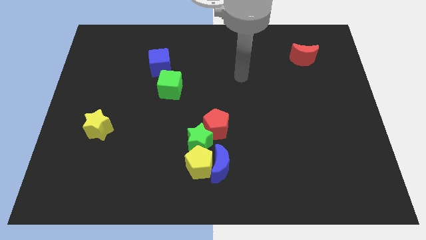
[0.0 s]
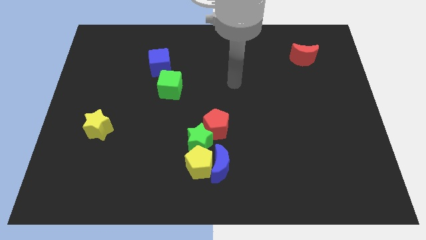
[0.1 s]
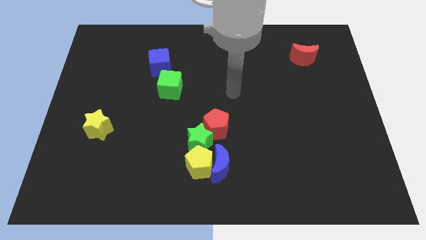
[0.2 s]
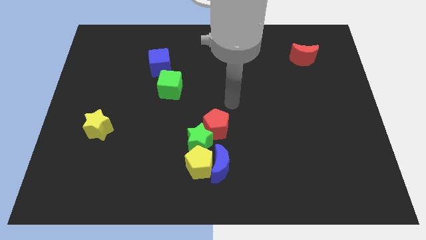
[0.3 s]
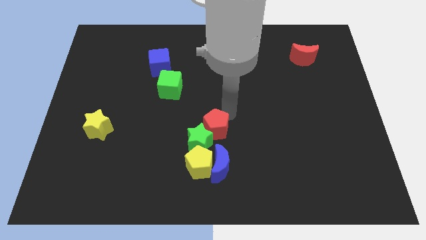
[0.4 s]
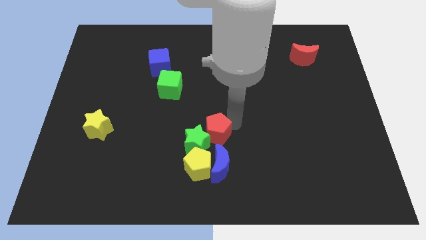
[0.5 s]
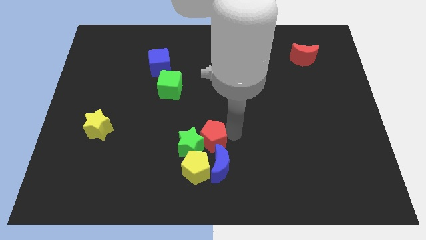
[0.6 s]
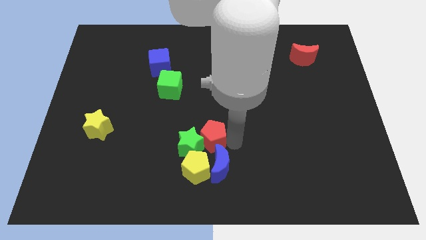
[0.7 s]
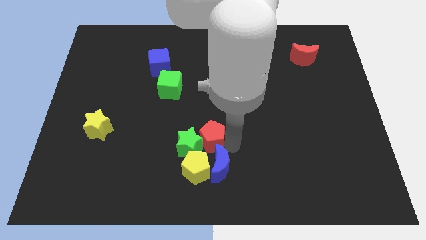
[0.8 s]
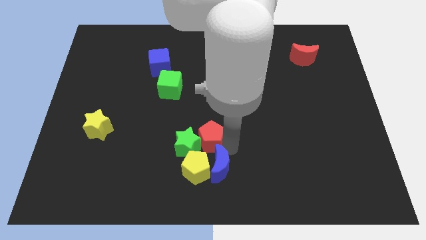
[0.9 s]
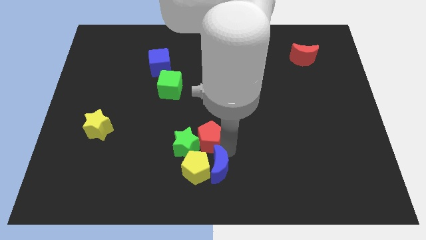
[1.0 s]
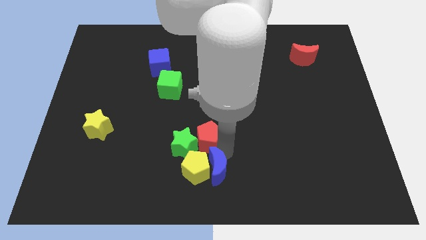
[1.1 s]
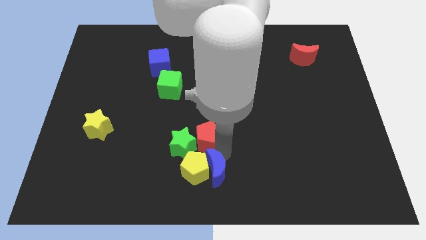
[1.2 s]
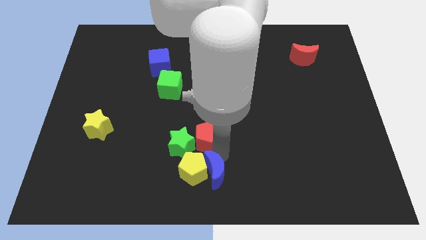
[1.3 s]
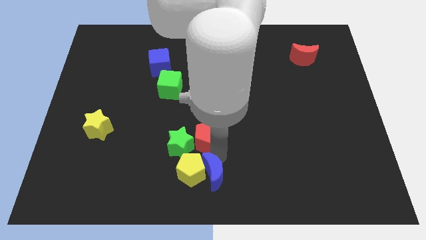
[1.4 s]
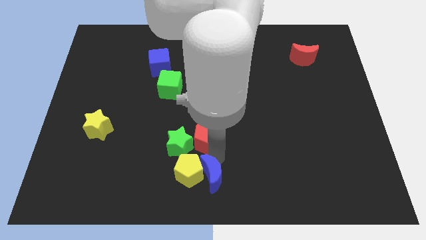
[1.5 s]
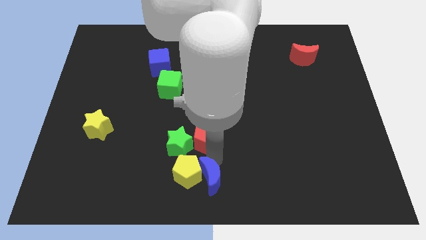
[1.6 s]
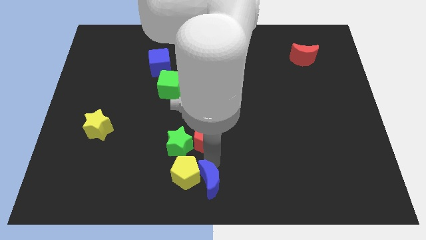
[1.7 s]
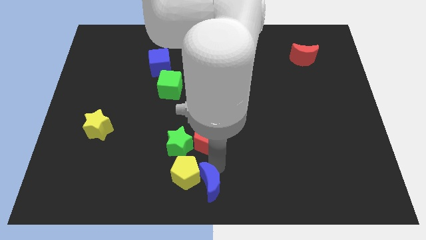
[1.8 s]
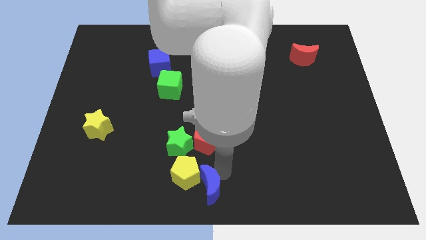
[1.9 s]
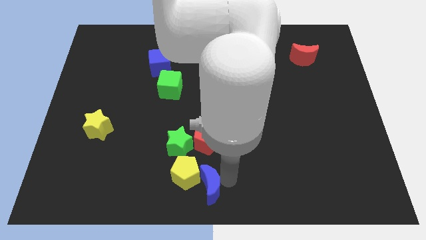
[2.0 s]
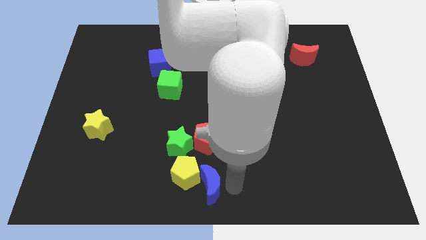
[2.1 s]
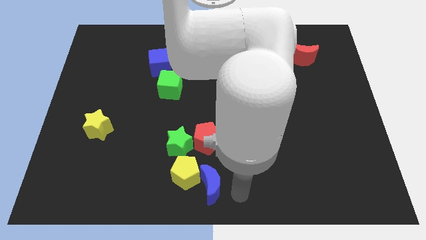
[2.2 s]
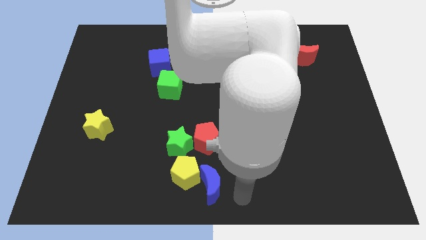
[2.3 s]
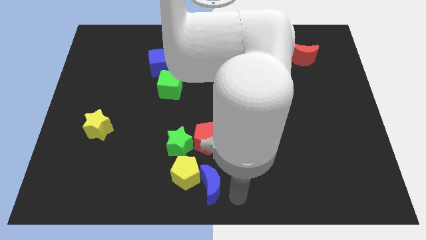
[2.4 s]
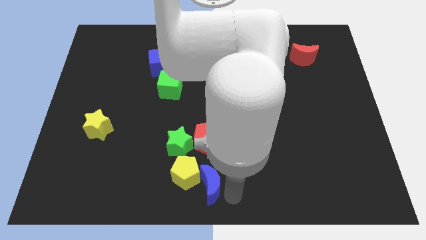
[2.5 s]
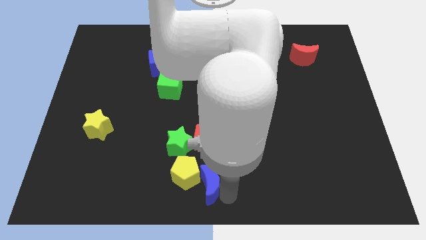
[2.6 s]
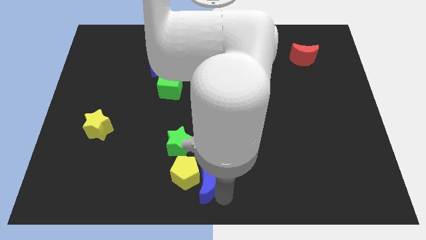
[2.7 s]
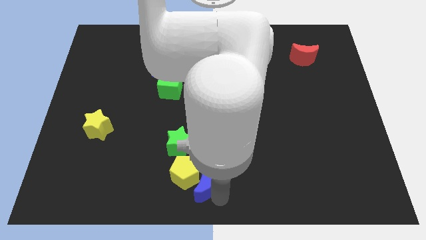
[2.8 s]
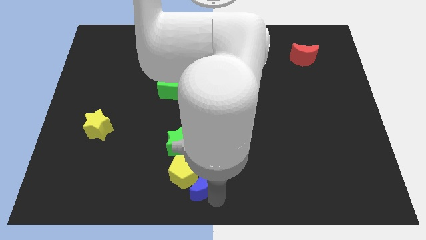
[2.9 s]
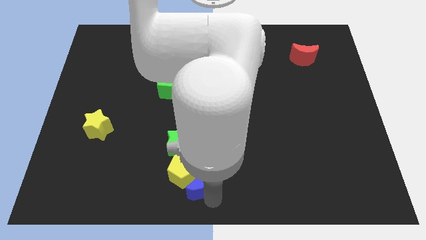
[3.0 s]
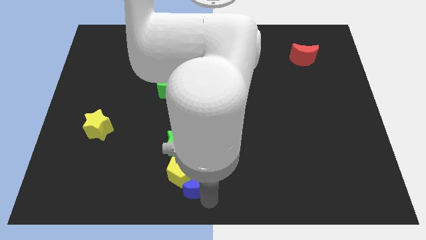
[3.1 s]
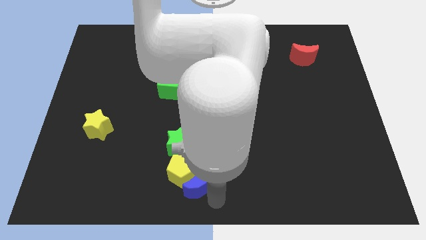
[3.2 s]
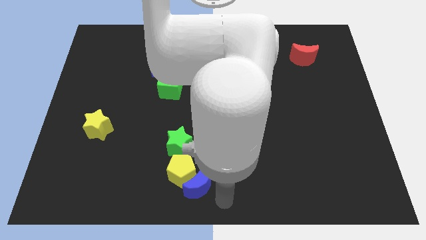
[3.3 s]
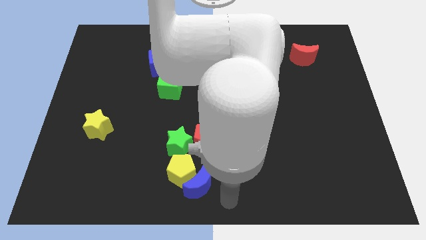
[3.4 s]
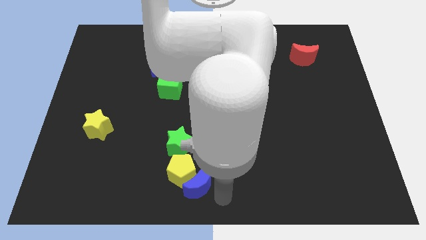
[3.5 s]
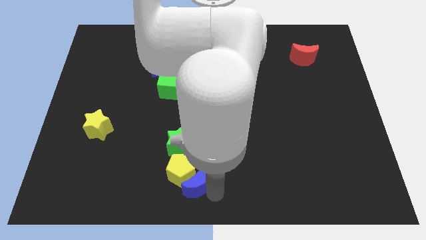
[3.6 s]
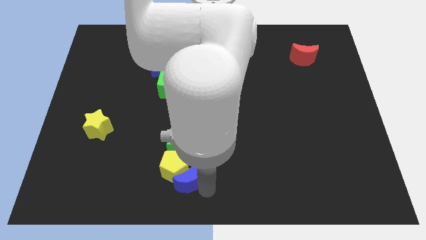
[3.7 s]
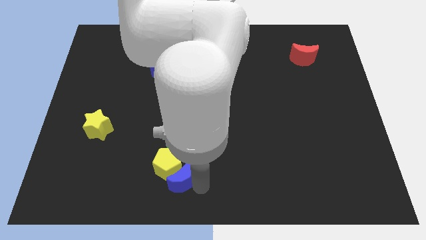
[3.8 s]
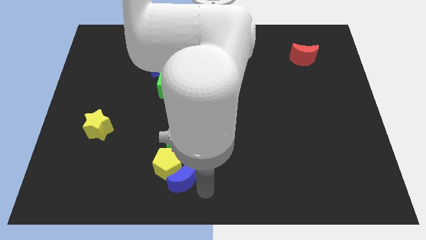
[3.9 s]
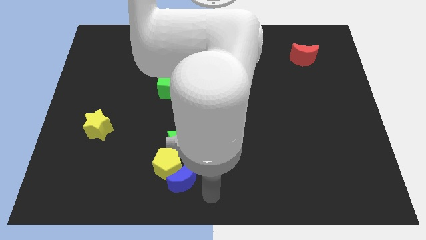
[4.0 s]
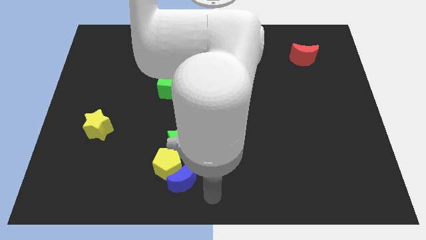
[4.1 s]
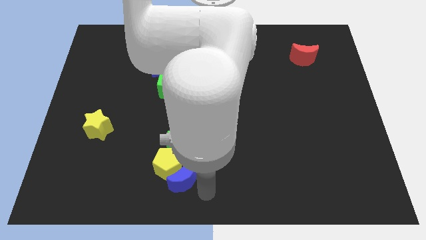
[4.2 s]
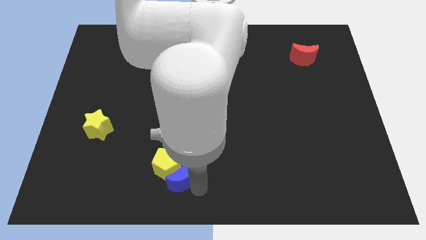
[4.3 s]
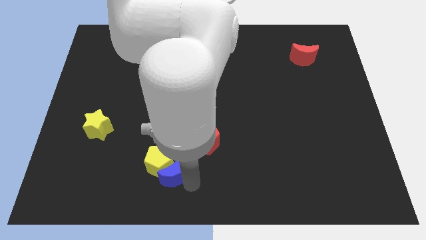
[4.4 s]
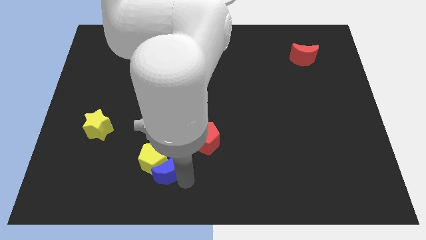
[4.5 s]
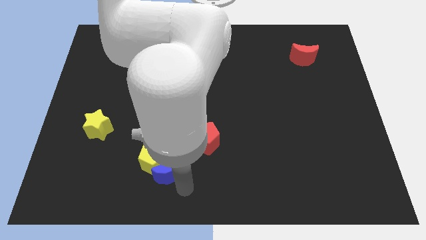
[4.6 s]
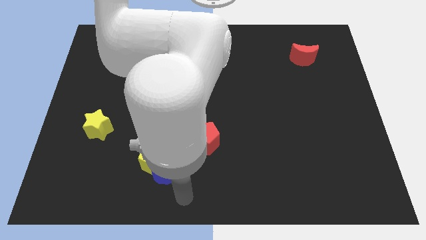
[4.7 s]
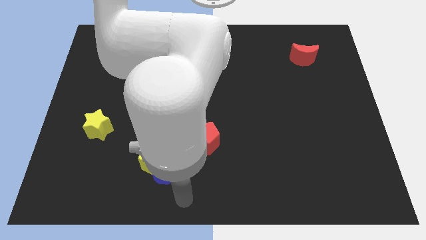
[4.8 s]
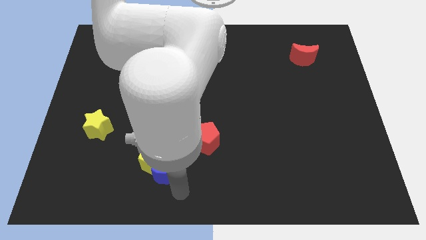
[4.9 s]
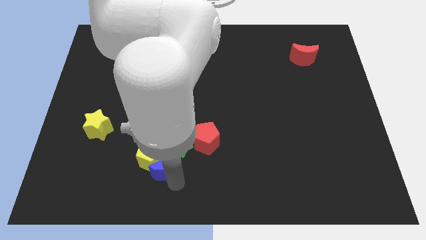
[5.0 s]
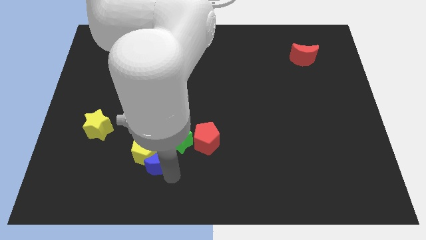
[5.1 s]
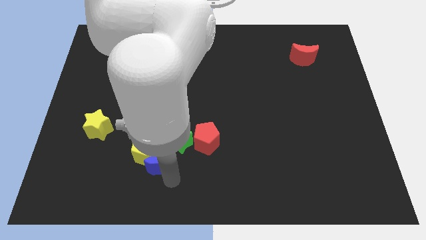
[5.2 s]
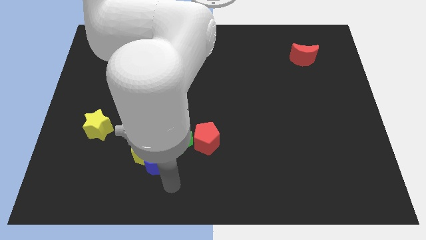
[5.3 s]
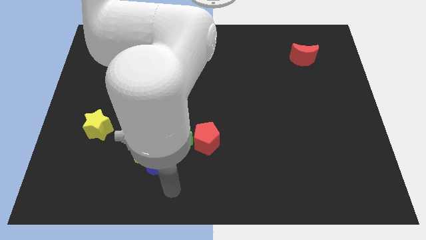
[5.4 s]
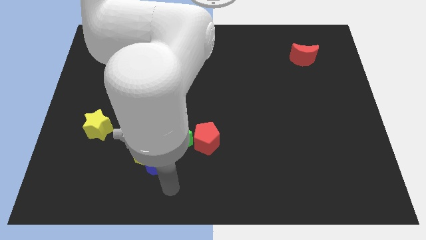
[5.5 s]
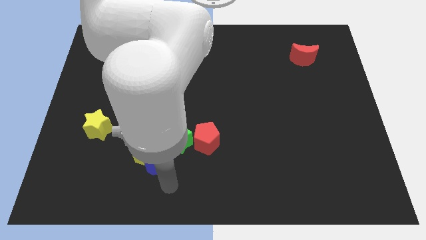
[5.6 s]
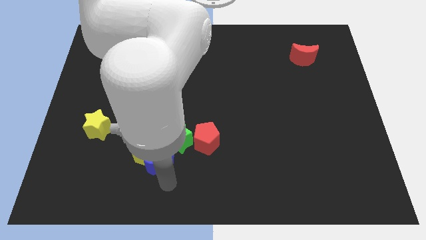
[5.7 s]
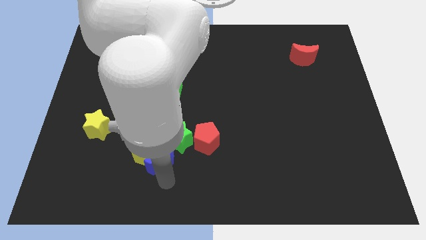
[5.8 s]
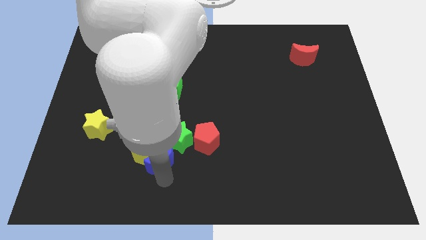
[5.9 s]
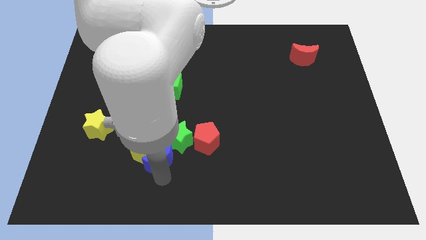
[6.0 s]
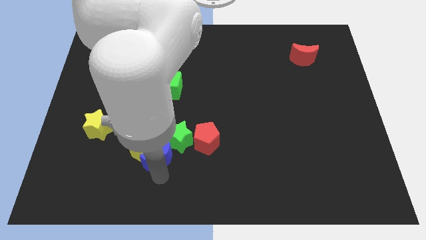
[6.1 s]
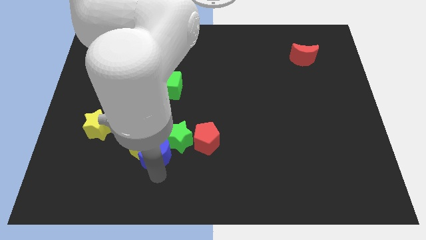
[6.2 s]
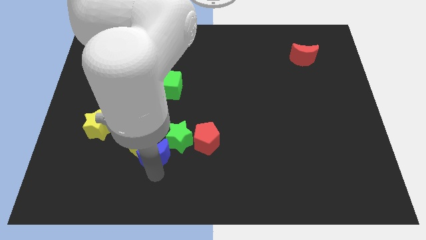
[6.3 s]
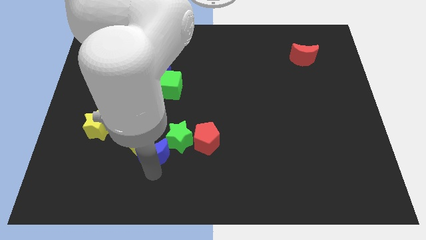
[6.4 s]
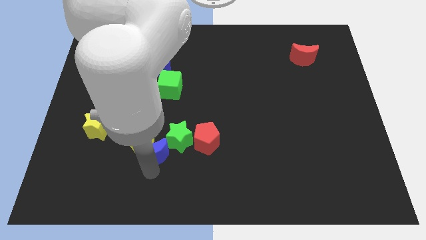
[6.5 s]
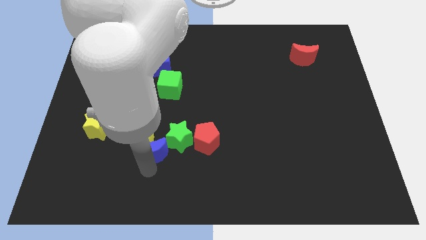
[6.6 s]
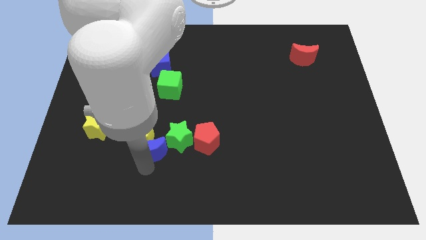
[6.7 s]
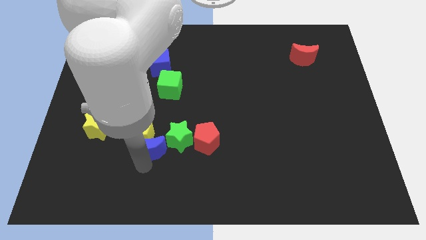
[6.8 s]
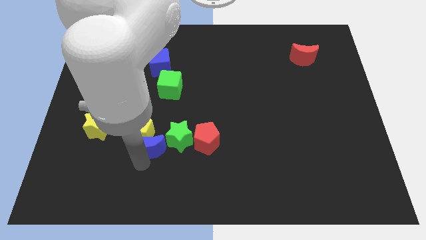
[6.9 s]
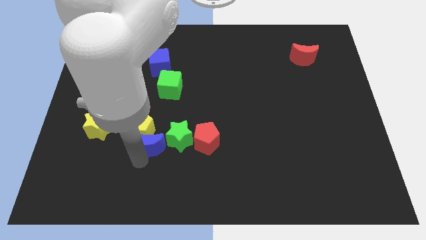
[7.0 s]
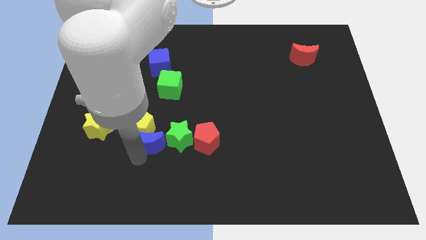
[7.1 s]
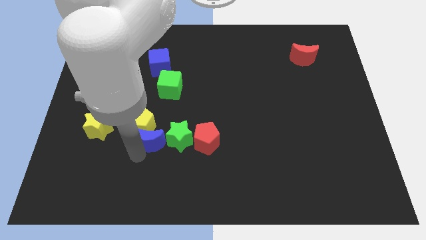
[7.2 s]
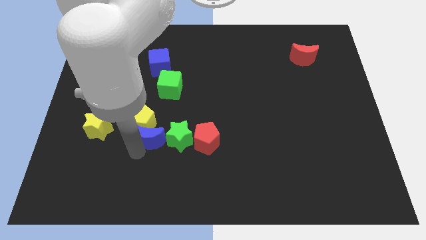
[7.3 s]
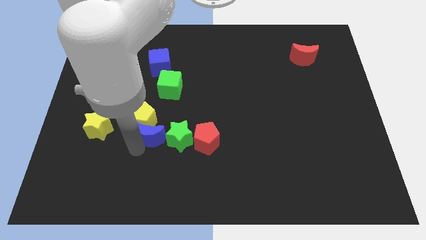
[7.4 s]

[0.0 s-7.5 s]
slide the blue moon to the bottom side of the green cube
